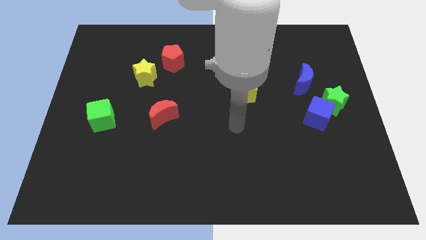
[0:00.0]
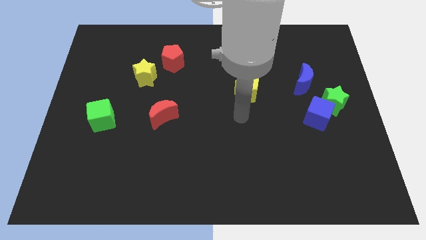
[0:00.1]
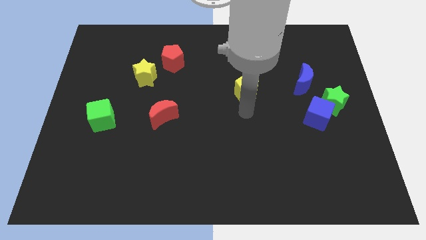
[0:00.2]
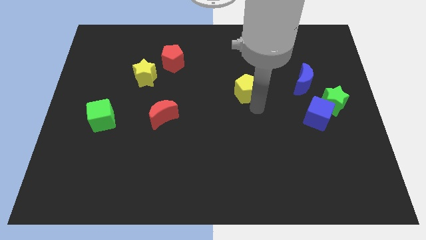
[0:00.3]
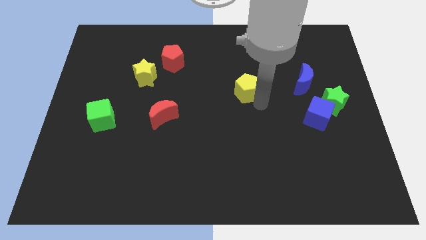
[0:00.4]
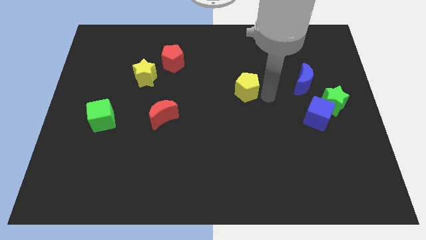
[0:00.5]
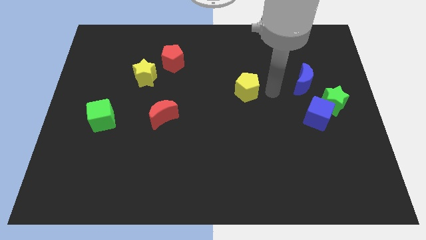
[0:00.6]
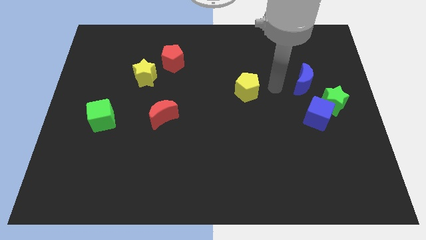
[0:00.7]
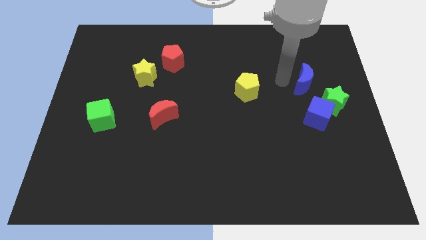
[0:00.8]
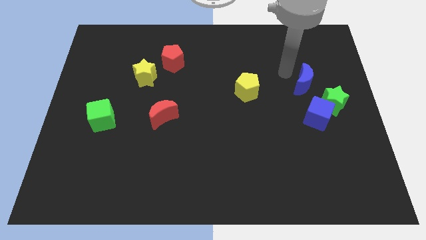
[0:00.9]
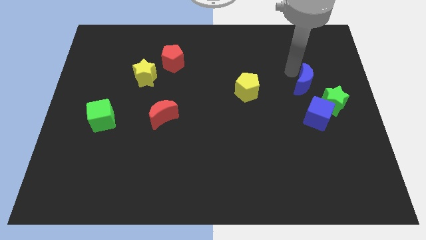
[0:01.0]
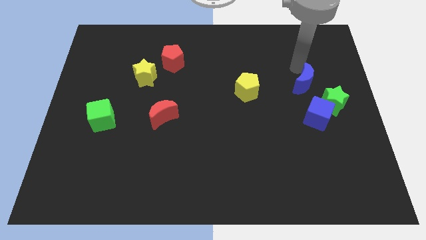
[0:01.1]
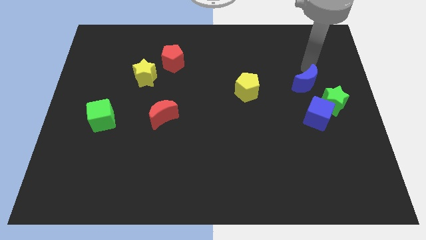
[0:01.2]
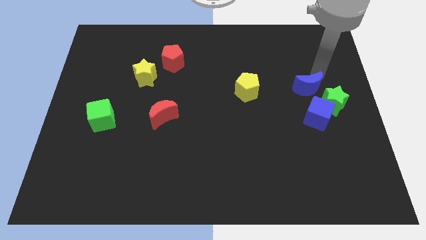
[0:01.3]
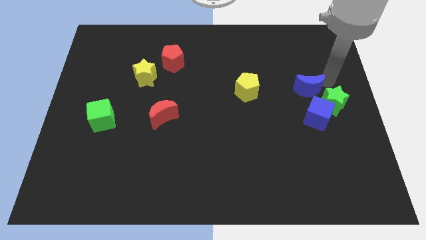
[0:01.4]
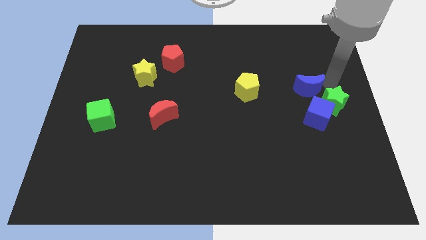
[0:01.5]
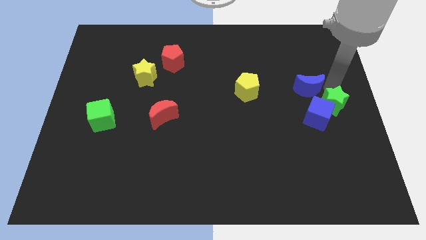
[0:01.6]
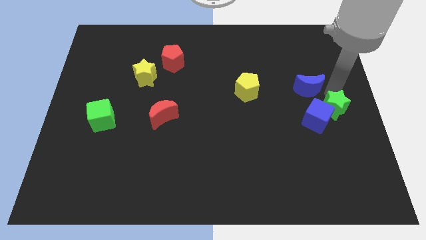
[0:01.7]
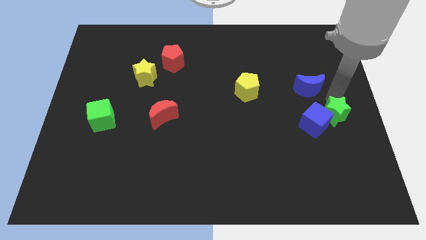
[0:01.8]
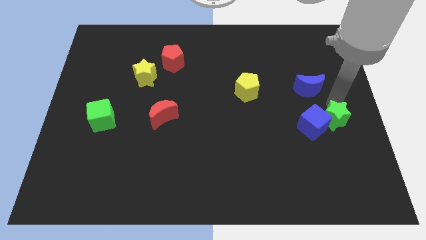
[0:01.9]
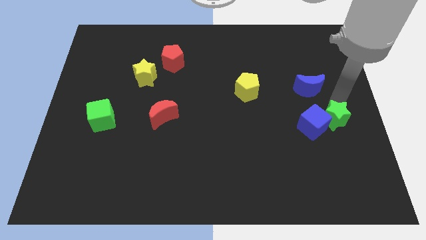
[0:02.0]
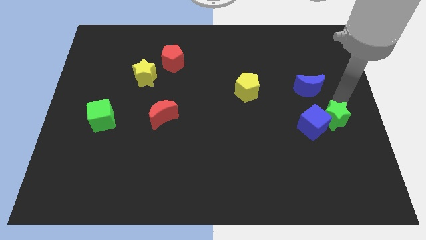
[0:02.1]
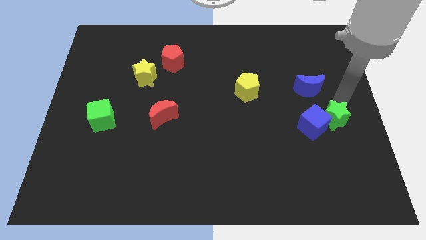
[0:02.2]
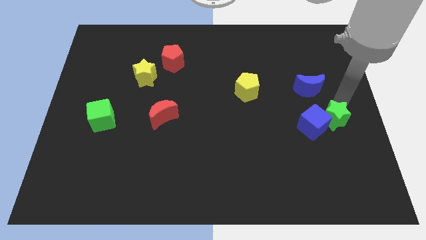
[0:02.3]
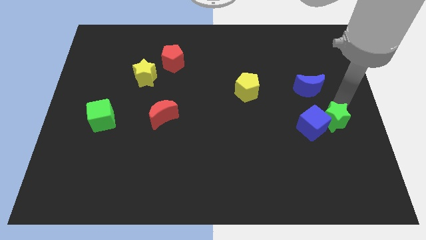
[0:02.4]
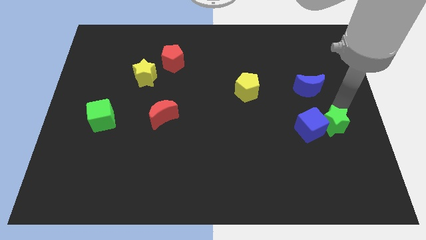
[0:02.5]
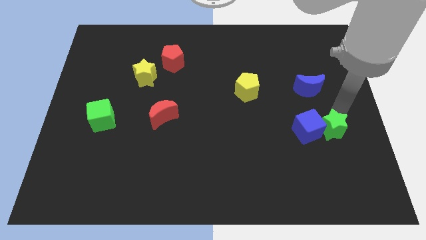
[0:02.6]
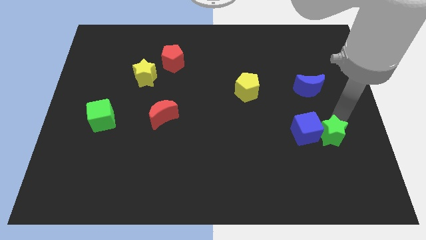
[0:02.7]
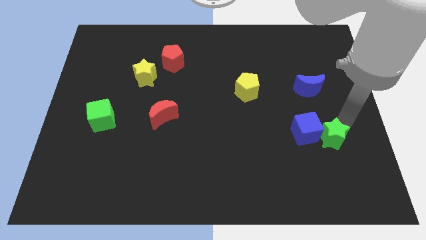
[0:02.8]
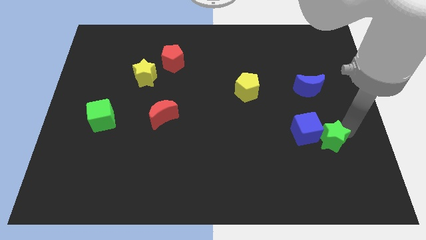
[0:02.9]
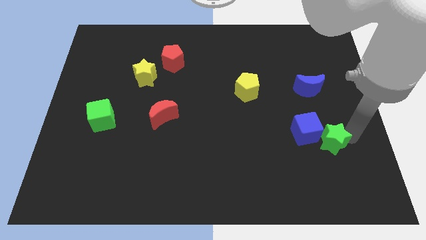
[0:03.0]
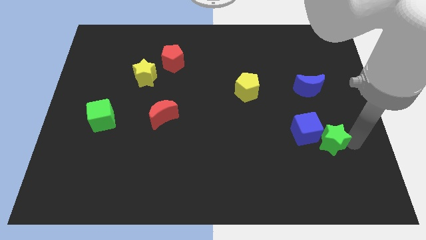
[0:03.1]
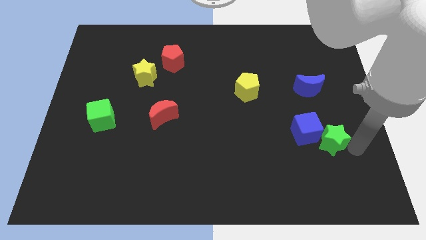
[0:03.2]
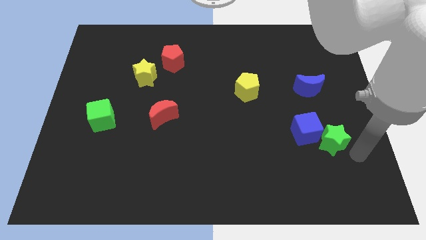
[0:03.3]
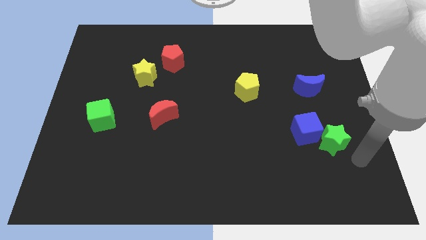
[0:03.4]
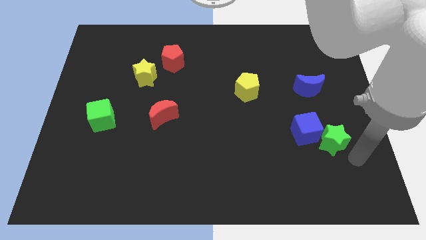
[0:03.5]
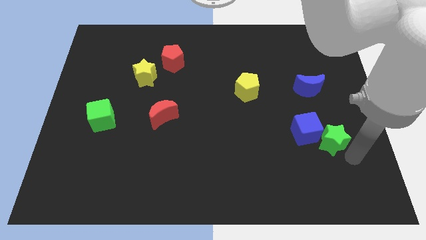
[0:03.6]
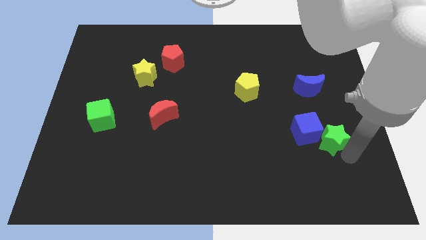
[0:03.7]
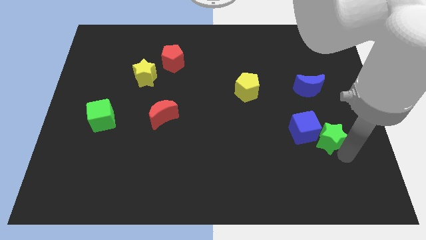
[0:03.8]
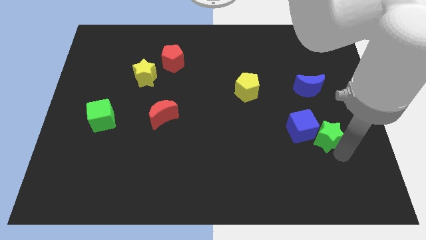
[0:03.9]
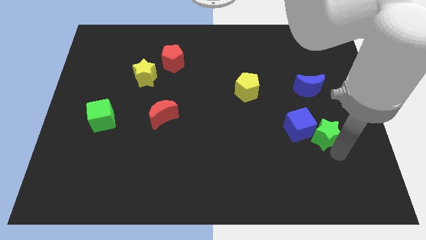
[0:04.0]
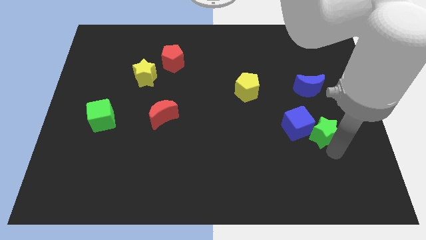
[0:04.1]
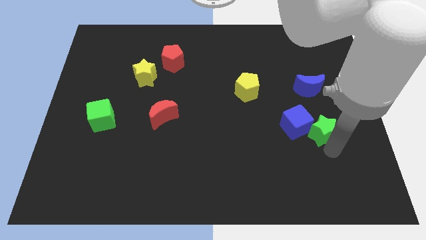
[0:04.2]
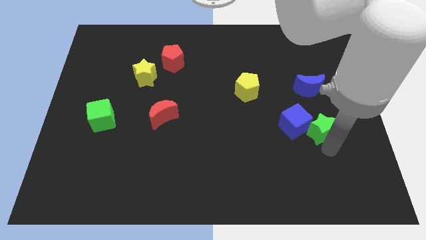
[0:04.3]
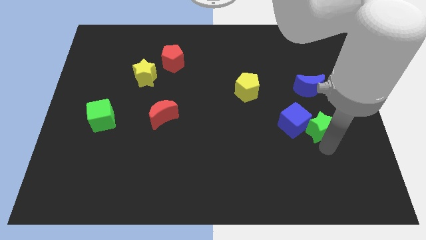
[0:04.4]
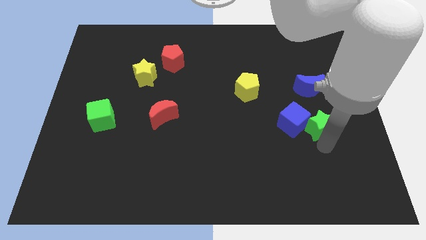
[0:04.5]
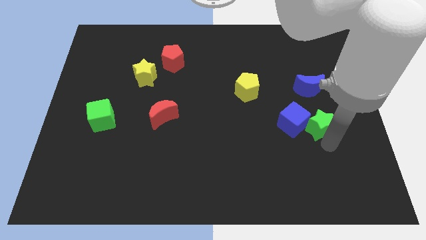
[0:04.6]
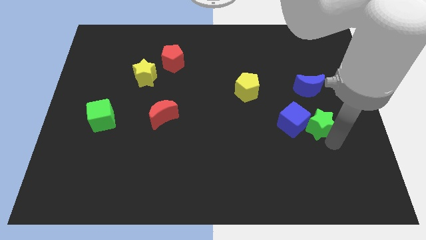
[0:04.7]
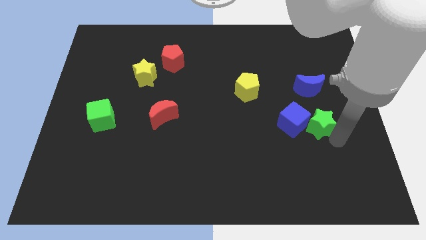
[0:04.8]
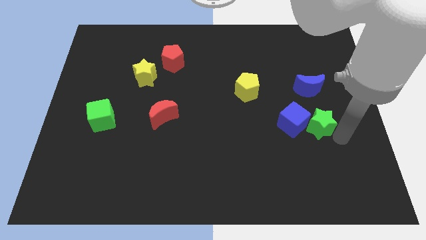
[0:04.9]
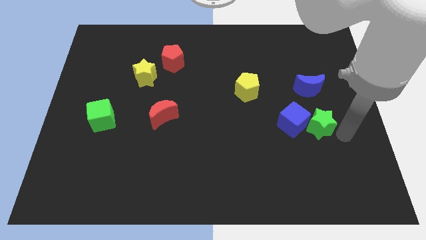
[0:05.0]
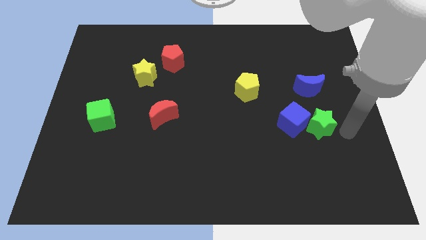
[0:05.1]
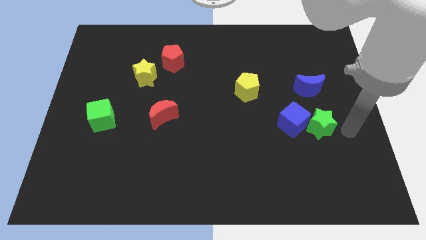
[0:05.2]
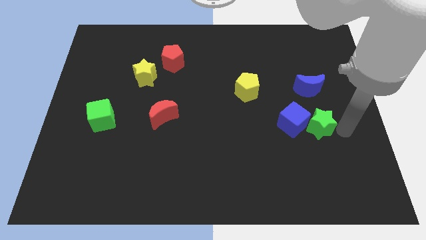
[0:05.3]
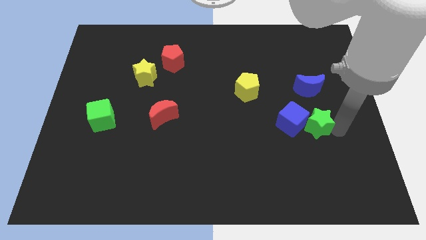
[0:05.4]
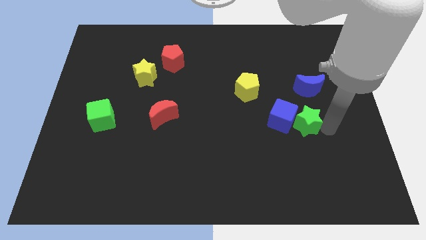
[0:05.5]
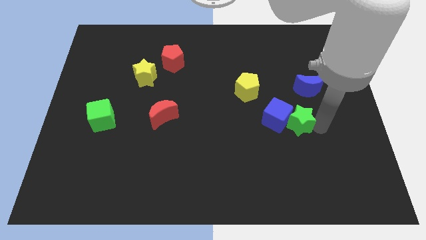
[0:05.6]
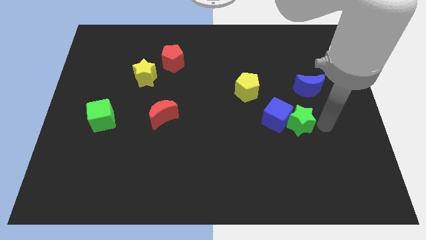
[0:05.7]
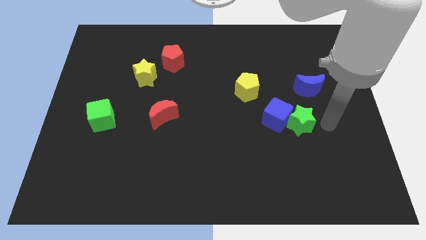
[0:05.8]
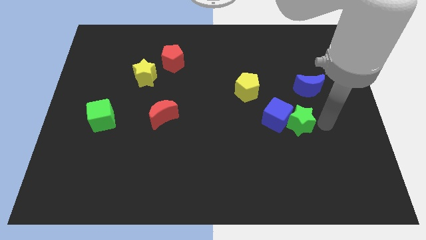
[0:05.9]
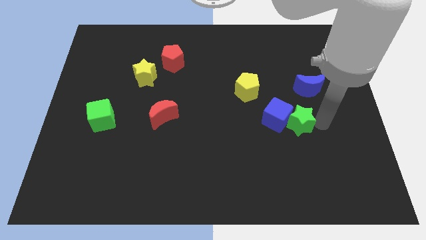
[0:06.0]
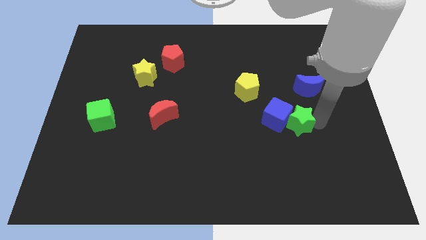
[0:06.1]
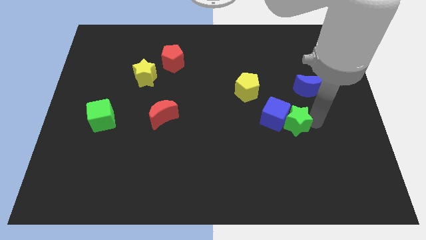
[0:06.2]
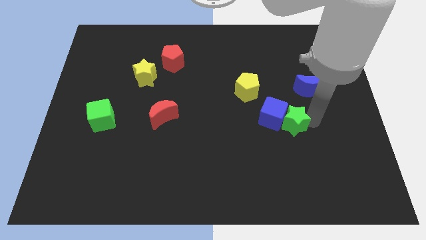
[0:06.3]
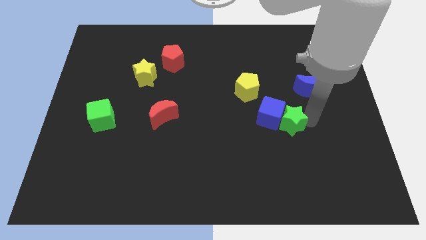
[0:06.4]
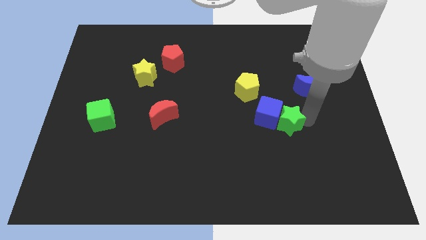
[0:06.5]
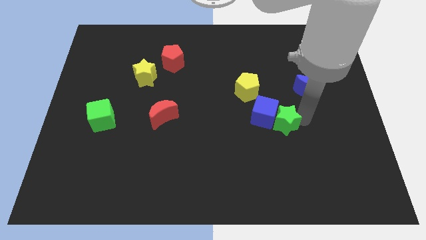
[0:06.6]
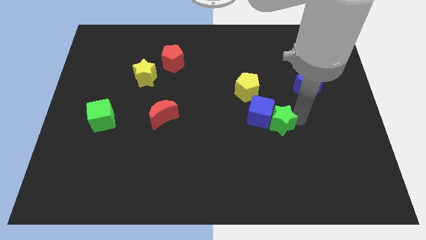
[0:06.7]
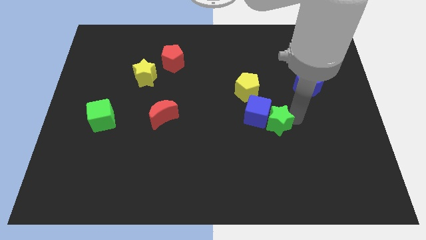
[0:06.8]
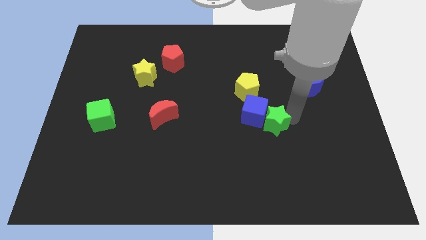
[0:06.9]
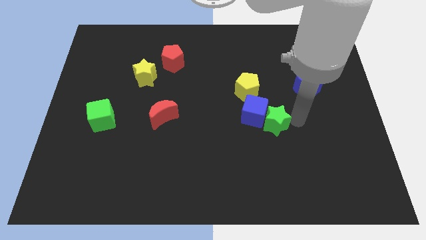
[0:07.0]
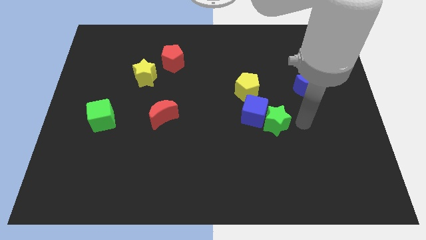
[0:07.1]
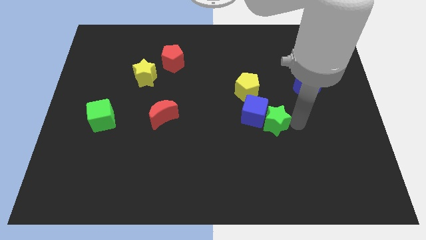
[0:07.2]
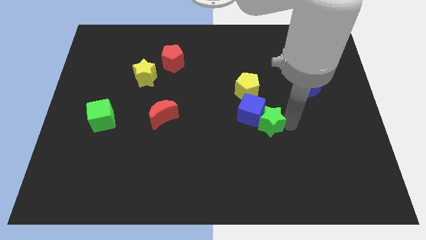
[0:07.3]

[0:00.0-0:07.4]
slide the green star to the bottom side of the yellow pentagon

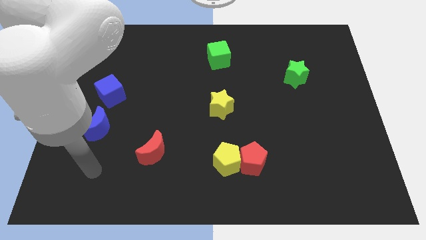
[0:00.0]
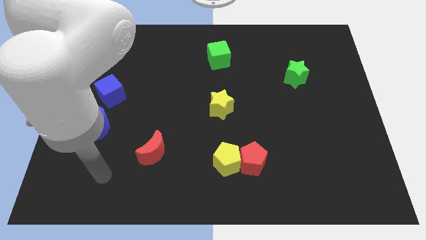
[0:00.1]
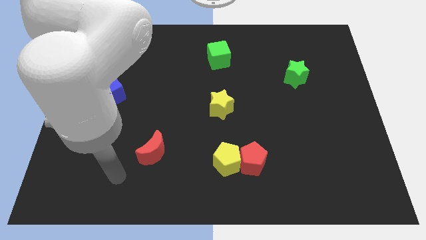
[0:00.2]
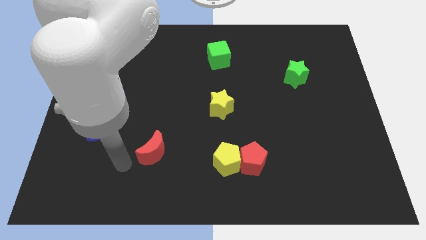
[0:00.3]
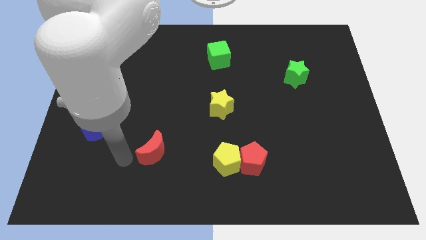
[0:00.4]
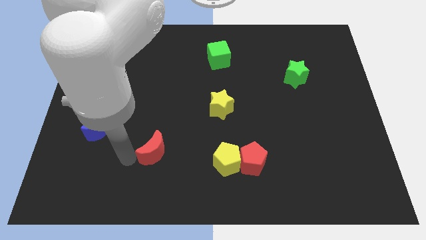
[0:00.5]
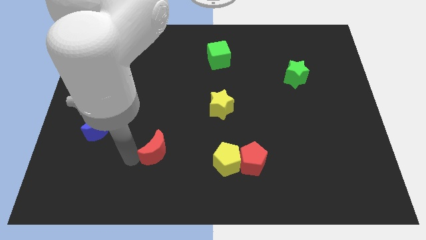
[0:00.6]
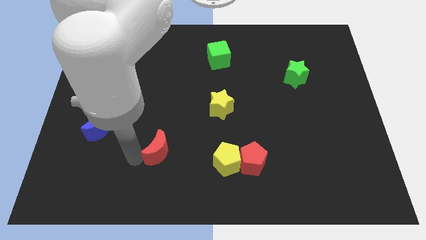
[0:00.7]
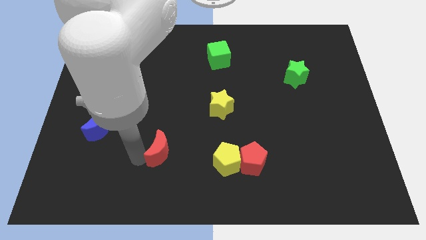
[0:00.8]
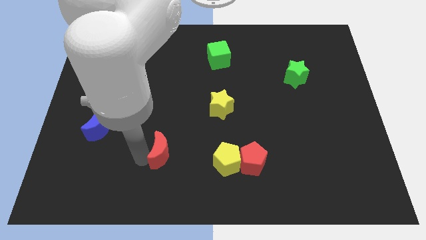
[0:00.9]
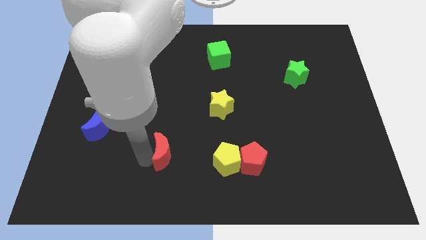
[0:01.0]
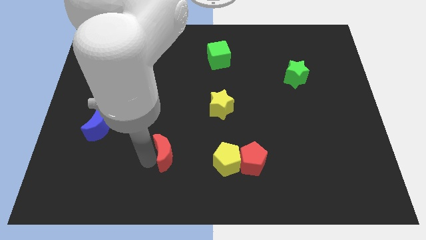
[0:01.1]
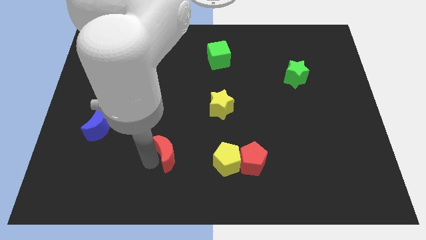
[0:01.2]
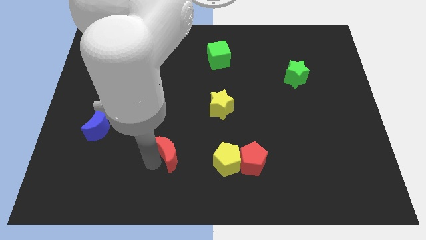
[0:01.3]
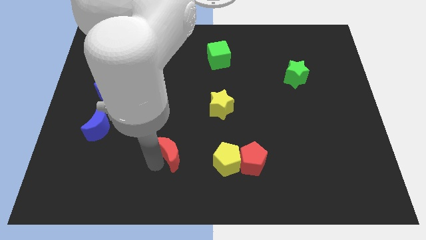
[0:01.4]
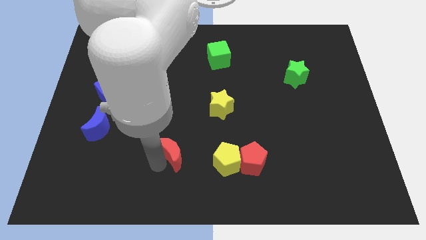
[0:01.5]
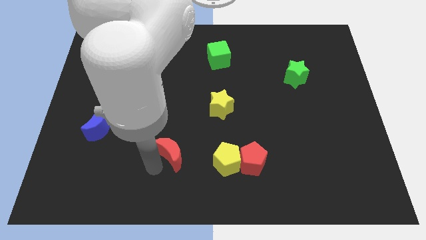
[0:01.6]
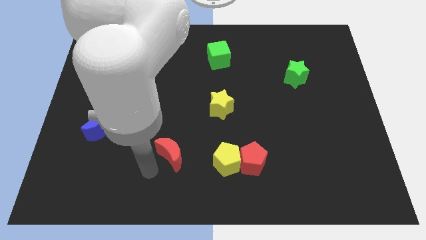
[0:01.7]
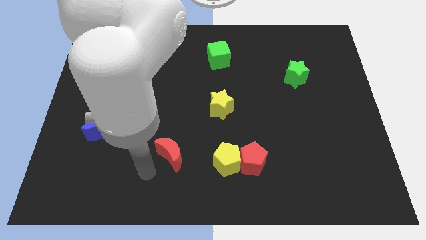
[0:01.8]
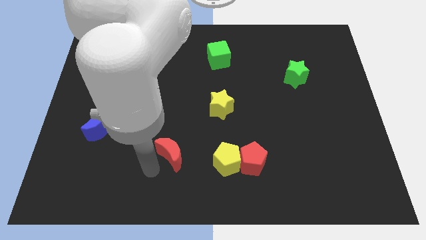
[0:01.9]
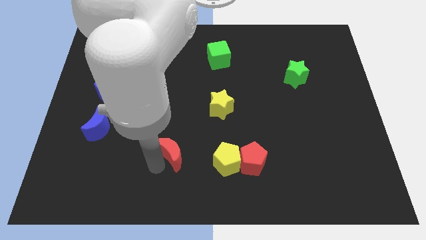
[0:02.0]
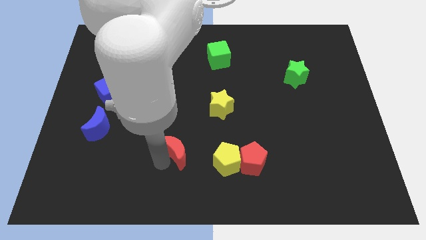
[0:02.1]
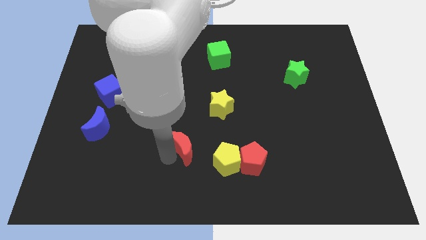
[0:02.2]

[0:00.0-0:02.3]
put the red moon diagonally up and to the left of the yellow pentagon
